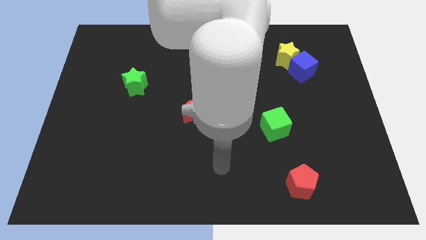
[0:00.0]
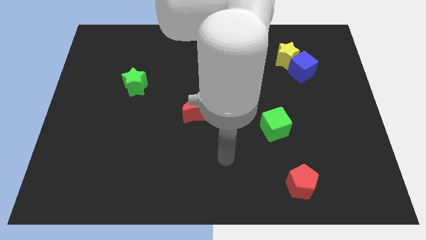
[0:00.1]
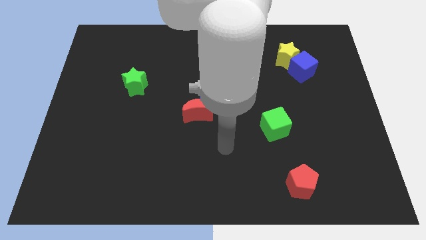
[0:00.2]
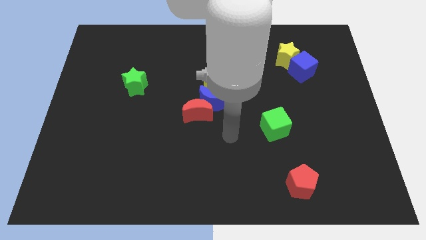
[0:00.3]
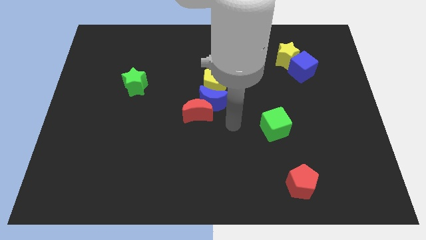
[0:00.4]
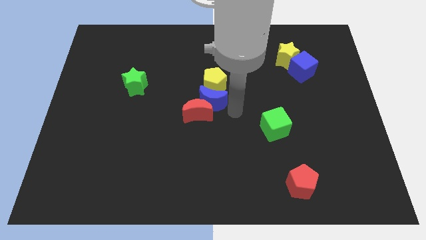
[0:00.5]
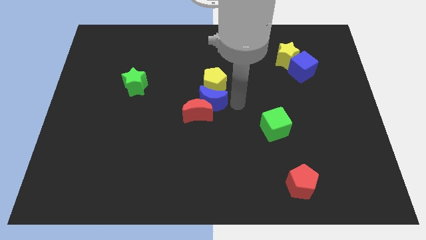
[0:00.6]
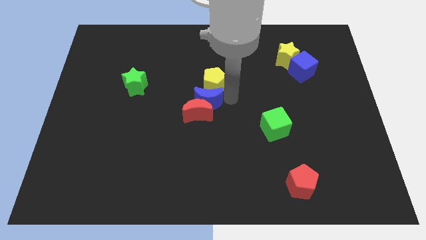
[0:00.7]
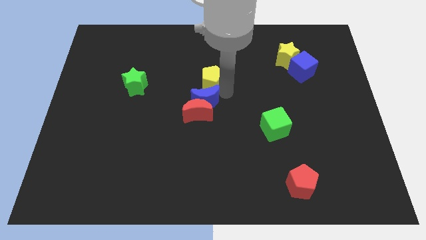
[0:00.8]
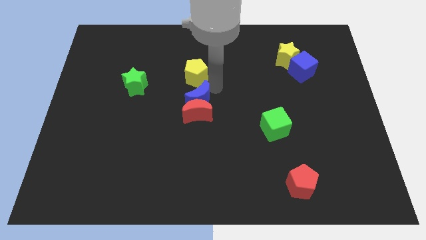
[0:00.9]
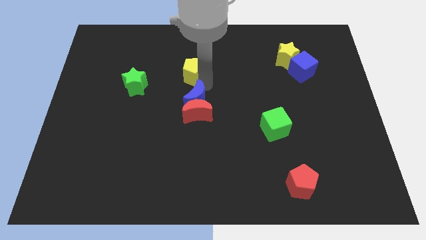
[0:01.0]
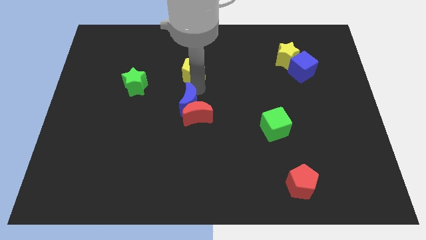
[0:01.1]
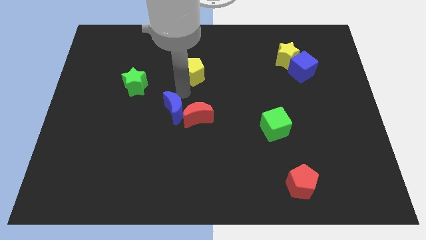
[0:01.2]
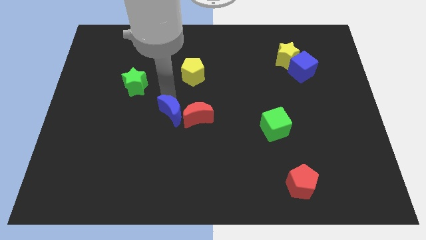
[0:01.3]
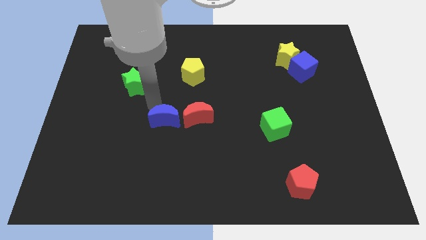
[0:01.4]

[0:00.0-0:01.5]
move the blue moon away from the red moon and yellow pentagon

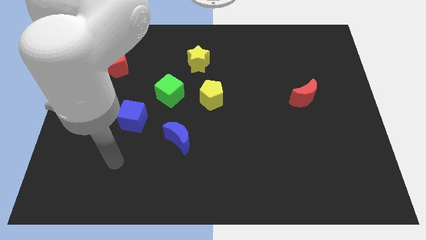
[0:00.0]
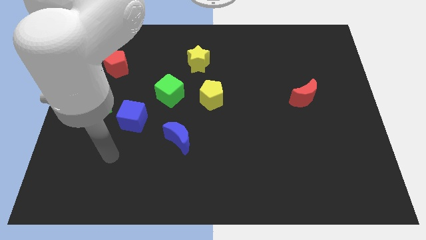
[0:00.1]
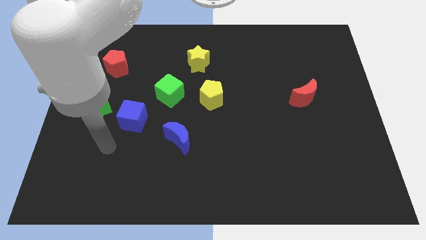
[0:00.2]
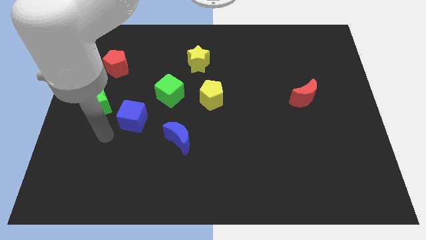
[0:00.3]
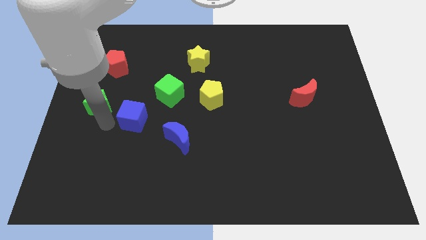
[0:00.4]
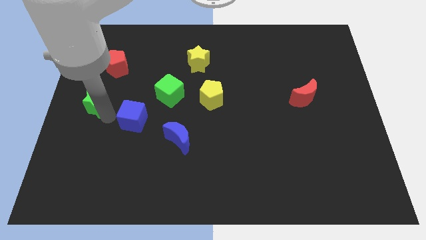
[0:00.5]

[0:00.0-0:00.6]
move the blue cube away from the green star

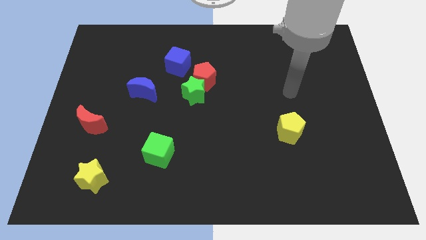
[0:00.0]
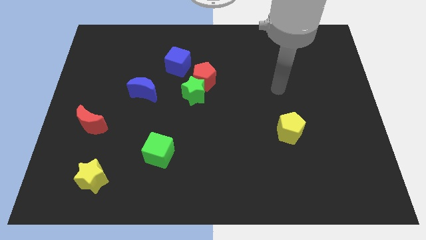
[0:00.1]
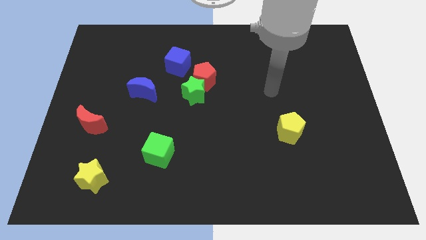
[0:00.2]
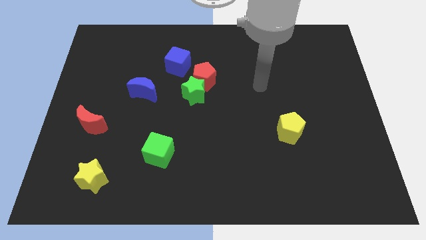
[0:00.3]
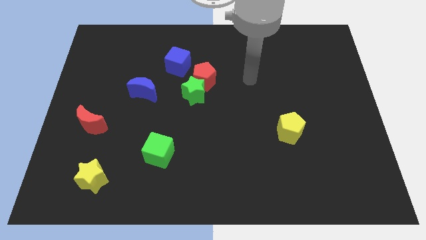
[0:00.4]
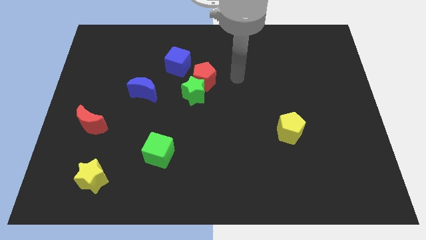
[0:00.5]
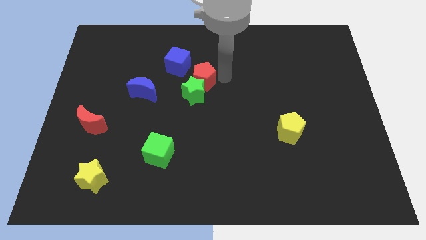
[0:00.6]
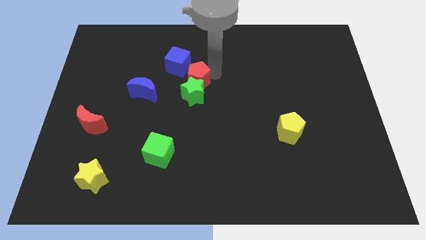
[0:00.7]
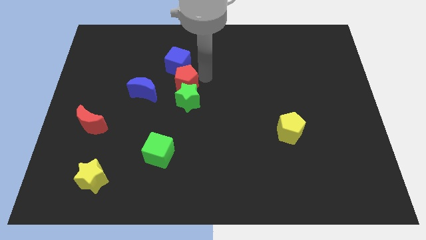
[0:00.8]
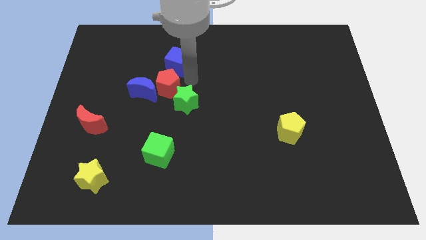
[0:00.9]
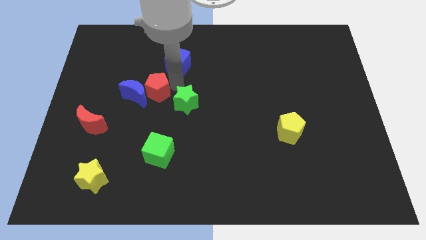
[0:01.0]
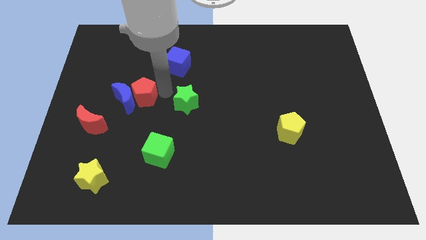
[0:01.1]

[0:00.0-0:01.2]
separate the green star from the red pentagon

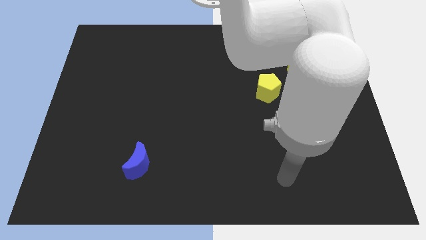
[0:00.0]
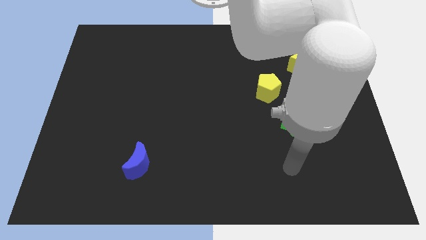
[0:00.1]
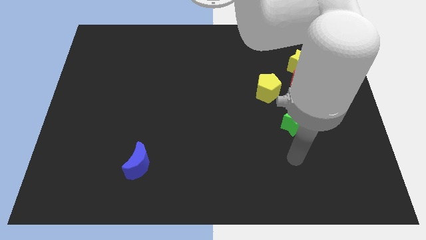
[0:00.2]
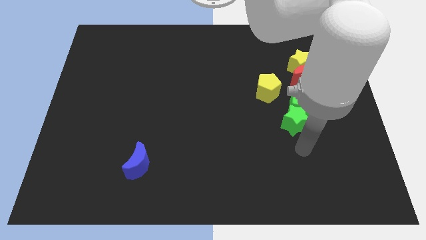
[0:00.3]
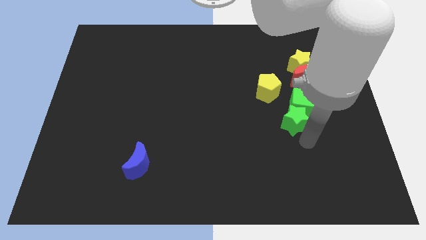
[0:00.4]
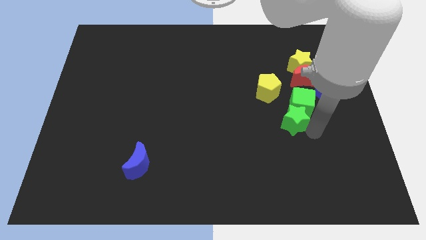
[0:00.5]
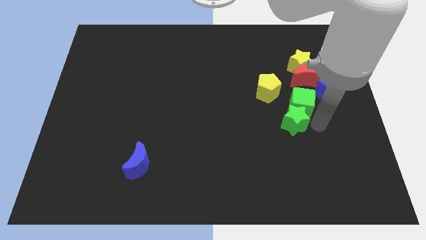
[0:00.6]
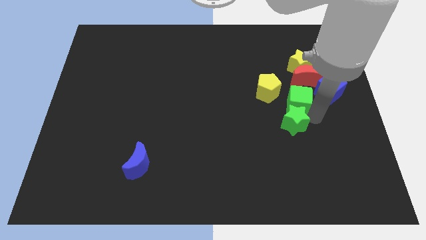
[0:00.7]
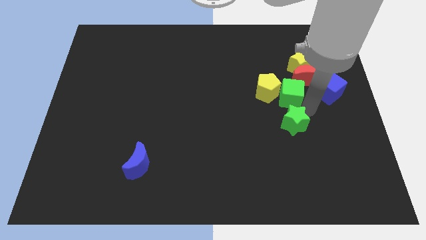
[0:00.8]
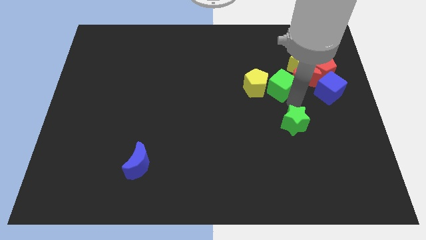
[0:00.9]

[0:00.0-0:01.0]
move the green star away from the green cube

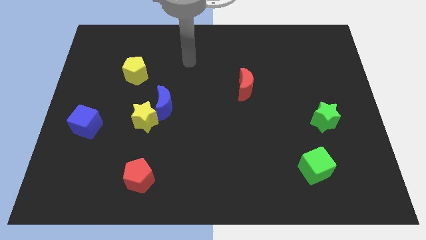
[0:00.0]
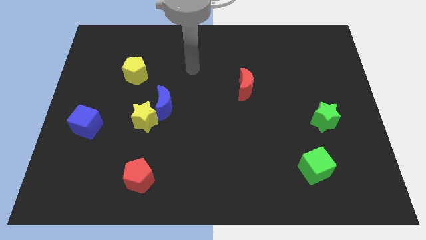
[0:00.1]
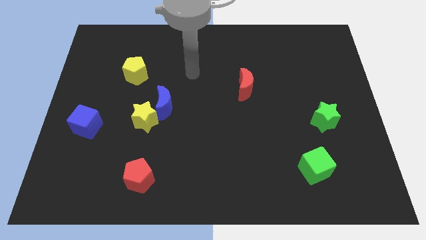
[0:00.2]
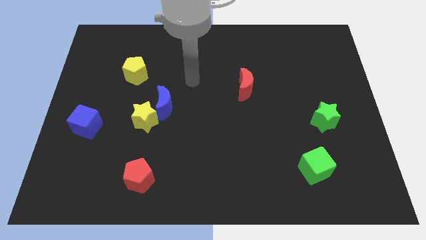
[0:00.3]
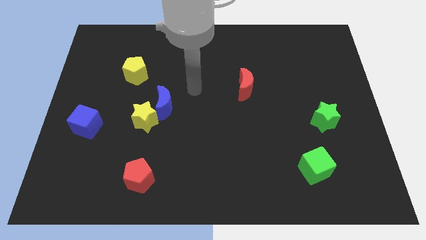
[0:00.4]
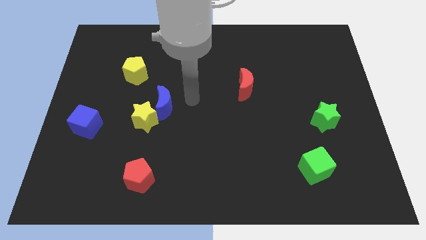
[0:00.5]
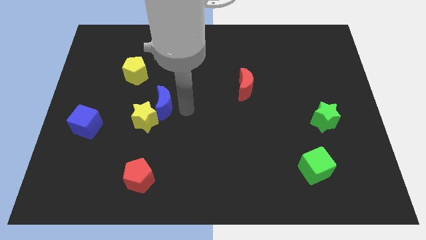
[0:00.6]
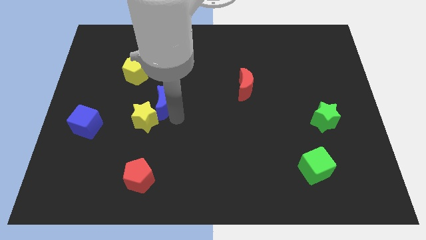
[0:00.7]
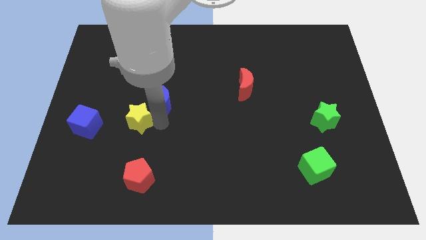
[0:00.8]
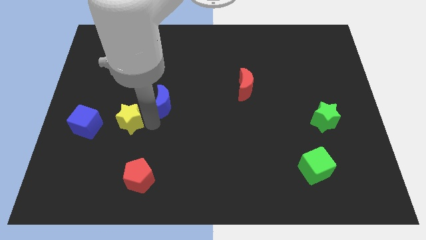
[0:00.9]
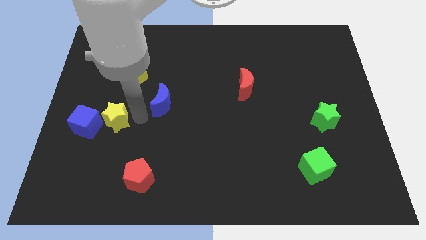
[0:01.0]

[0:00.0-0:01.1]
move the blue moon away from the yellow star

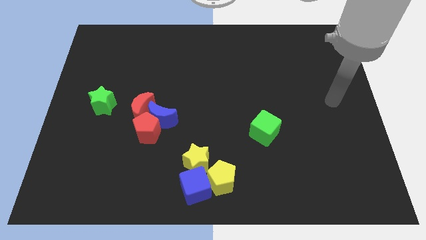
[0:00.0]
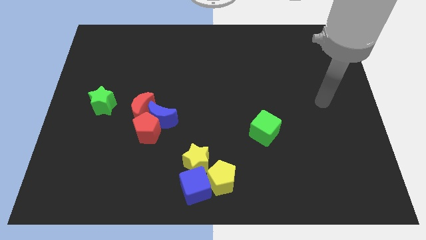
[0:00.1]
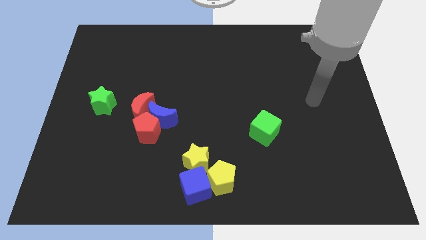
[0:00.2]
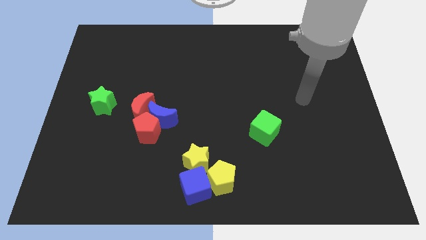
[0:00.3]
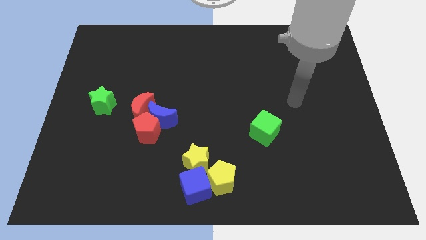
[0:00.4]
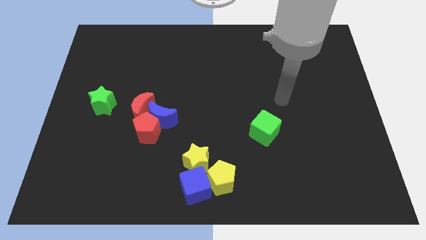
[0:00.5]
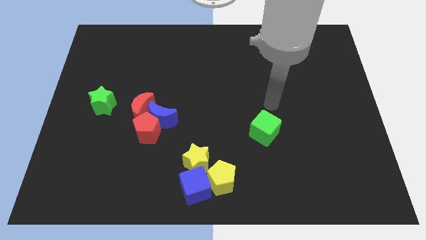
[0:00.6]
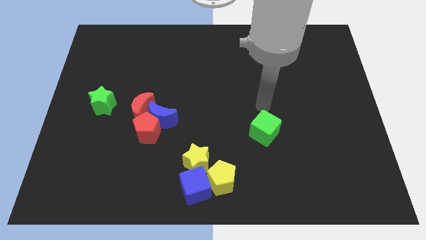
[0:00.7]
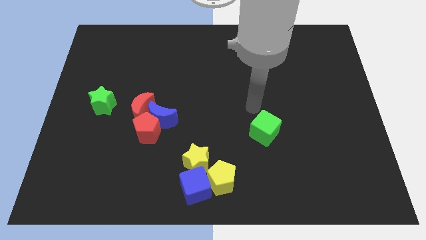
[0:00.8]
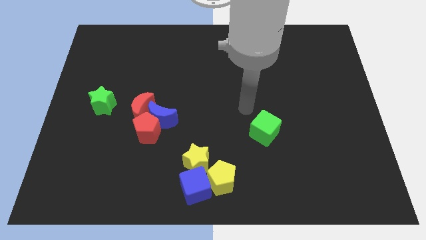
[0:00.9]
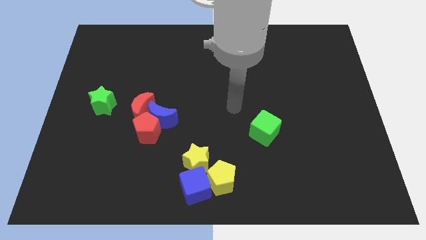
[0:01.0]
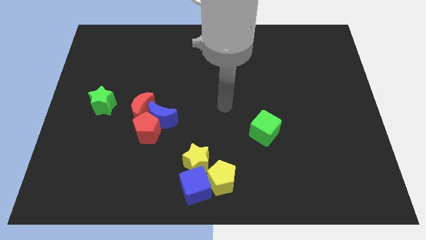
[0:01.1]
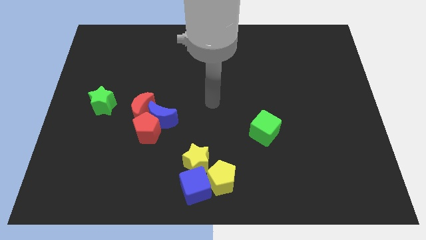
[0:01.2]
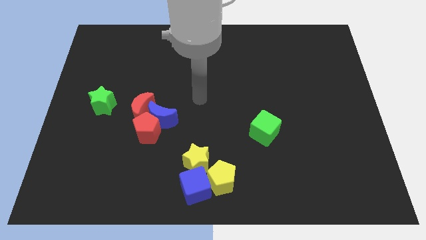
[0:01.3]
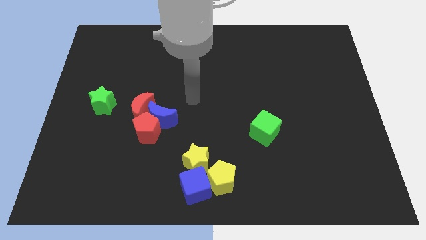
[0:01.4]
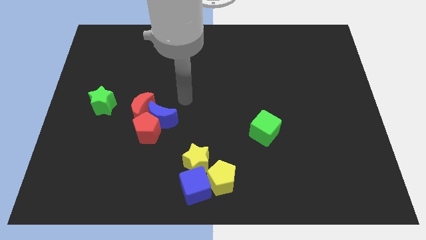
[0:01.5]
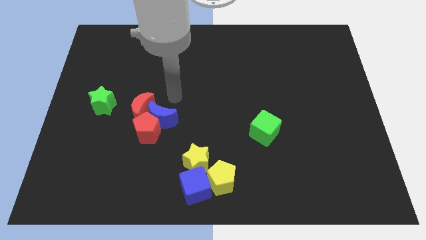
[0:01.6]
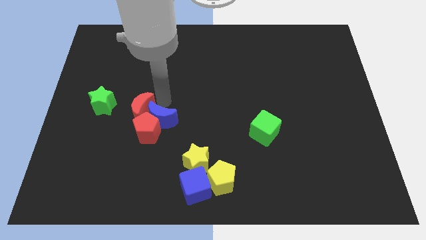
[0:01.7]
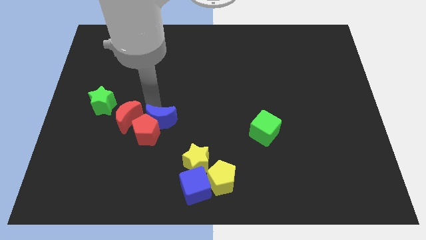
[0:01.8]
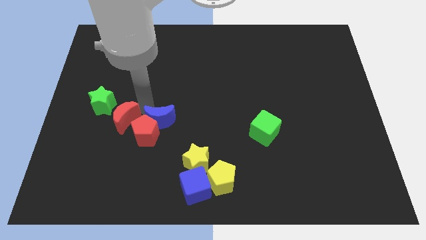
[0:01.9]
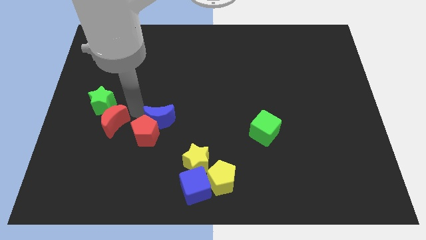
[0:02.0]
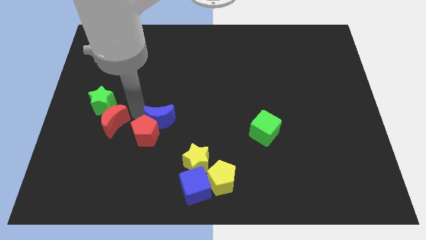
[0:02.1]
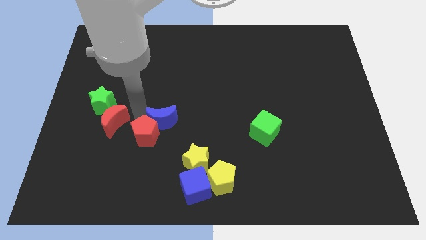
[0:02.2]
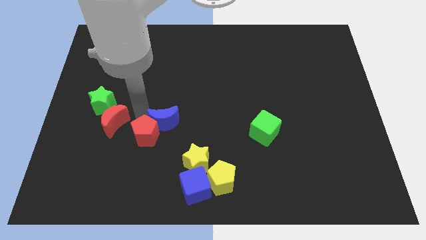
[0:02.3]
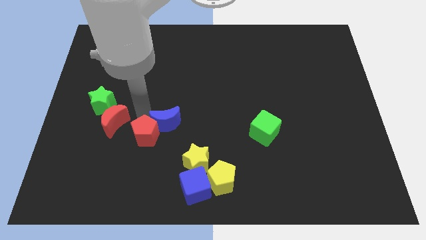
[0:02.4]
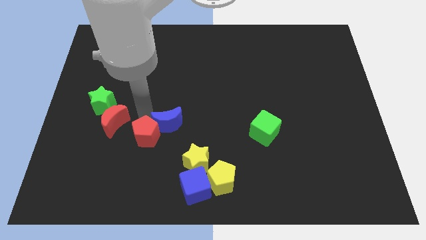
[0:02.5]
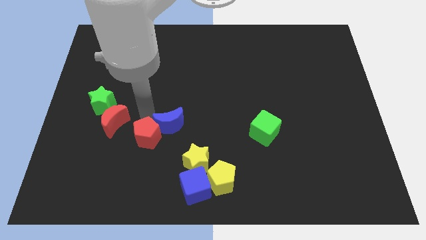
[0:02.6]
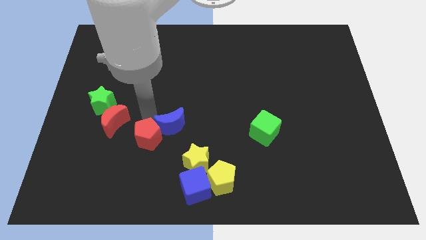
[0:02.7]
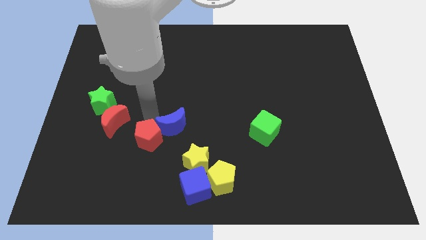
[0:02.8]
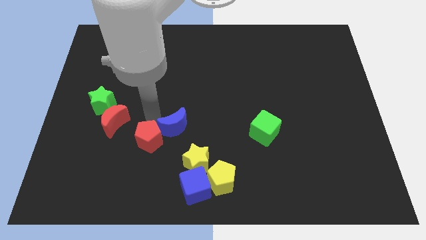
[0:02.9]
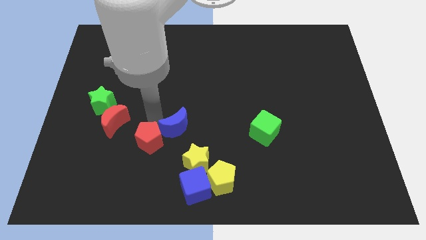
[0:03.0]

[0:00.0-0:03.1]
separate the blue moon from the red pentagon and red moon

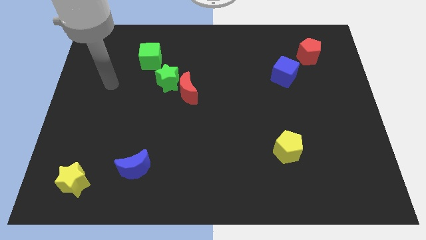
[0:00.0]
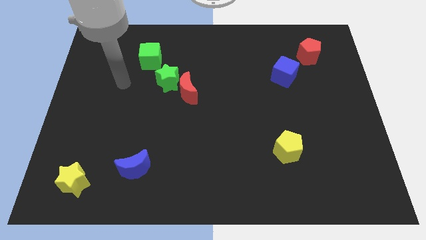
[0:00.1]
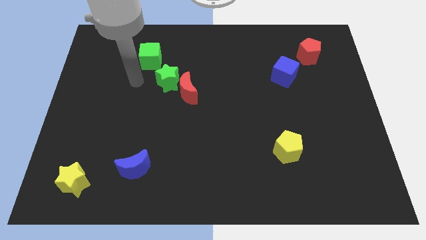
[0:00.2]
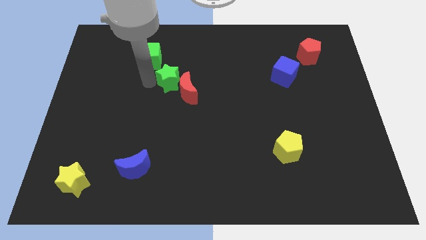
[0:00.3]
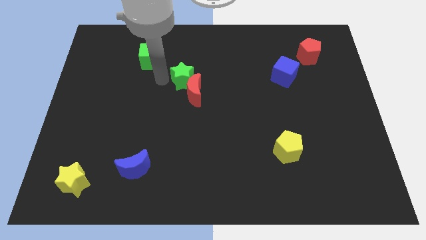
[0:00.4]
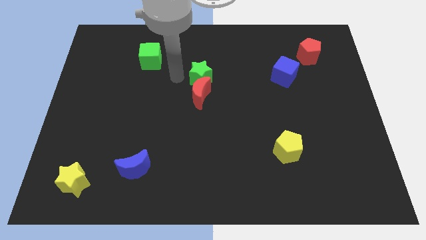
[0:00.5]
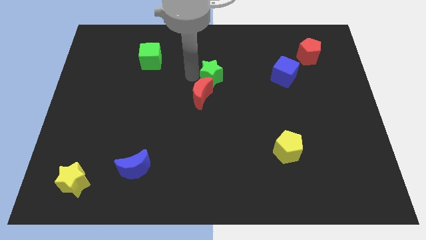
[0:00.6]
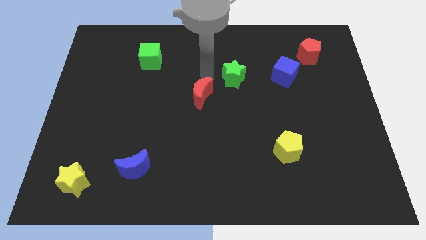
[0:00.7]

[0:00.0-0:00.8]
move the red moon away from the green star
